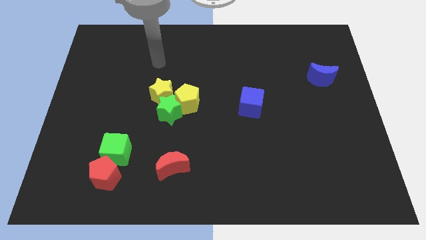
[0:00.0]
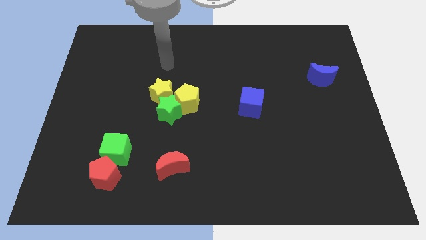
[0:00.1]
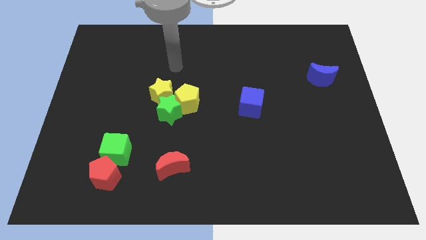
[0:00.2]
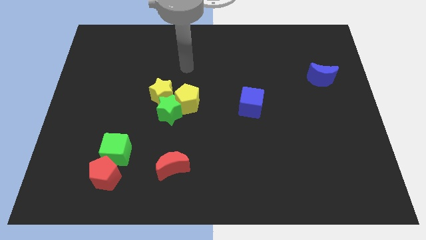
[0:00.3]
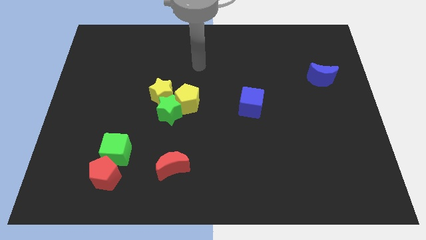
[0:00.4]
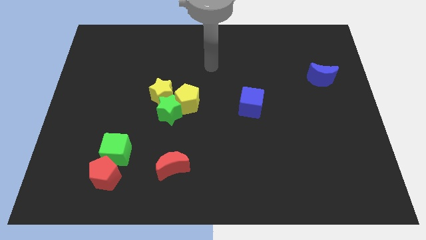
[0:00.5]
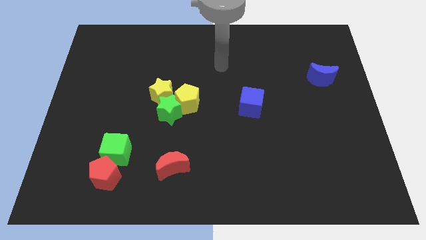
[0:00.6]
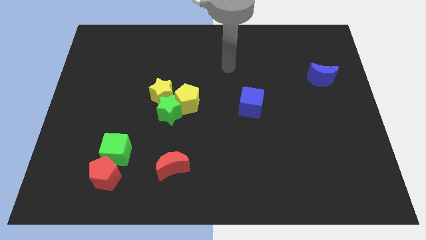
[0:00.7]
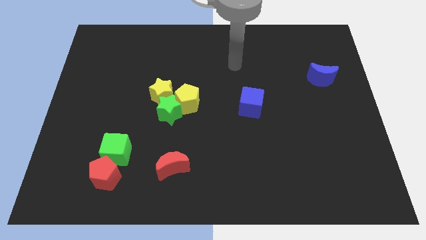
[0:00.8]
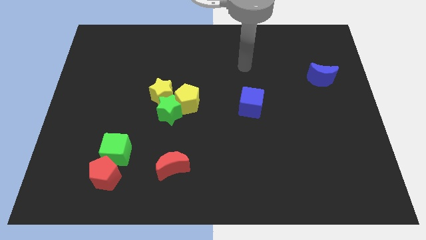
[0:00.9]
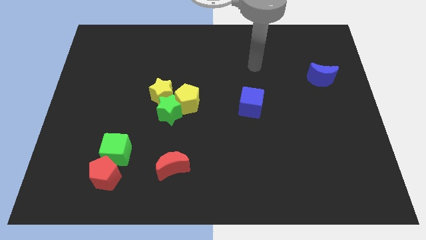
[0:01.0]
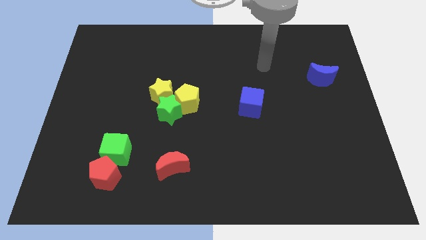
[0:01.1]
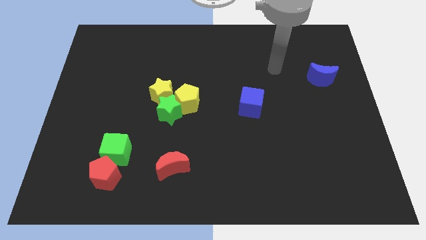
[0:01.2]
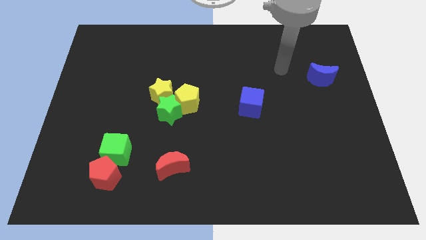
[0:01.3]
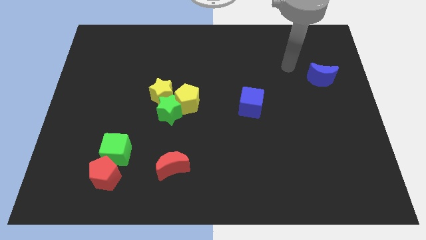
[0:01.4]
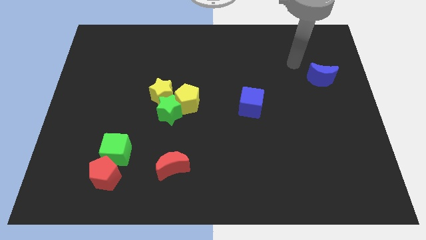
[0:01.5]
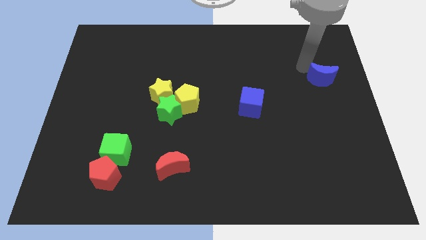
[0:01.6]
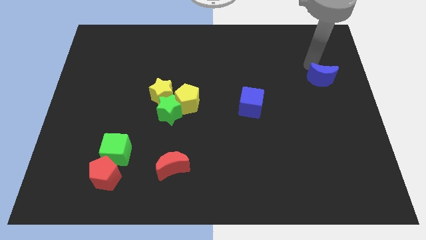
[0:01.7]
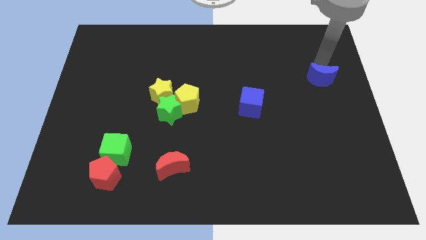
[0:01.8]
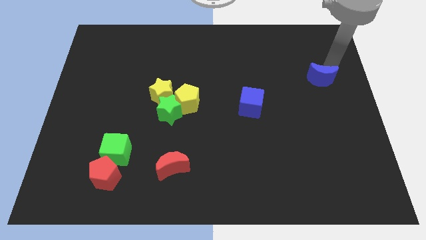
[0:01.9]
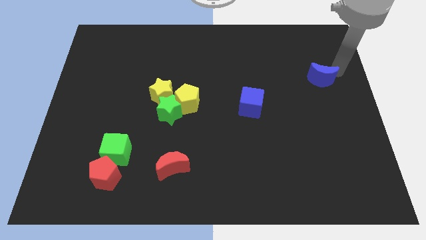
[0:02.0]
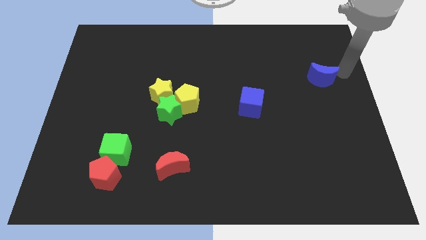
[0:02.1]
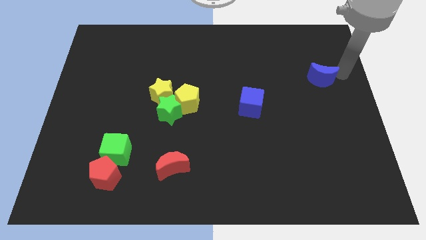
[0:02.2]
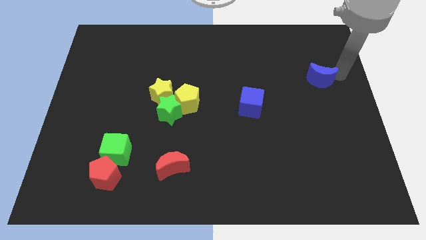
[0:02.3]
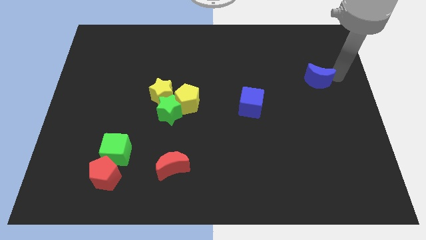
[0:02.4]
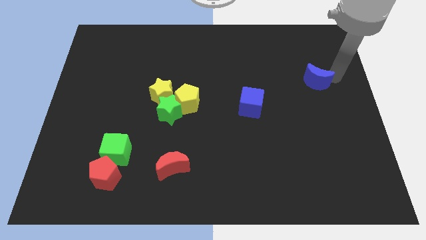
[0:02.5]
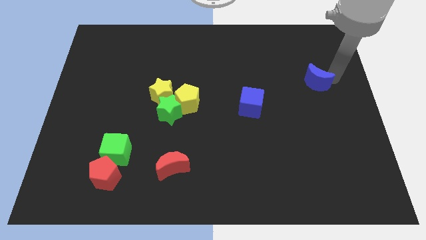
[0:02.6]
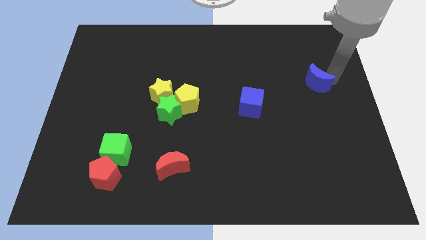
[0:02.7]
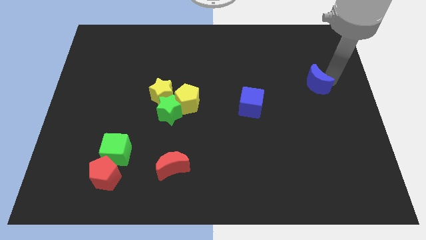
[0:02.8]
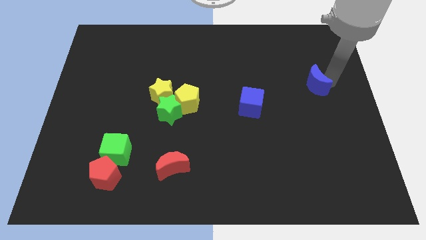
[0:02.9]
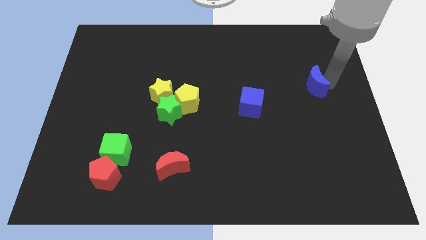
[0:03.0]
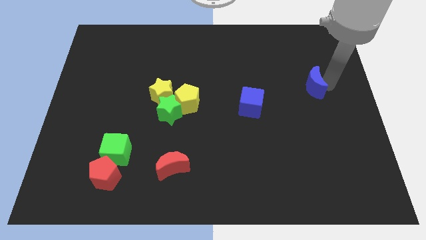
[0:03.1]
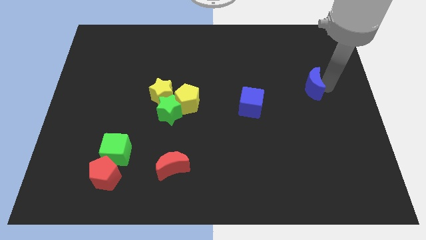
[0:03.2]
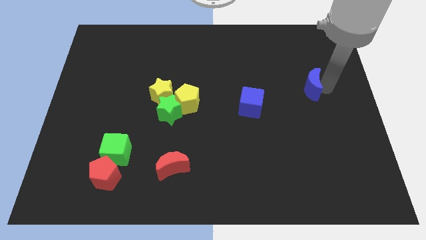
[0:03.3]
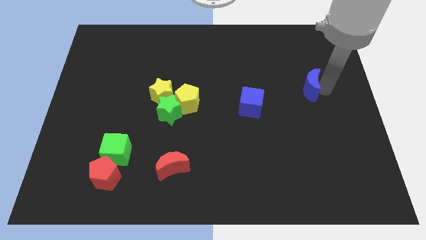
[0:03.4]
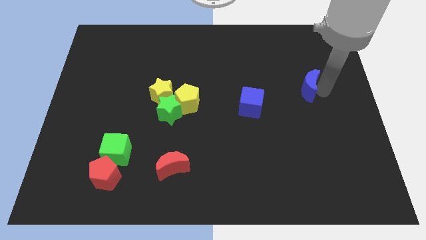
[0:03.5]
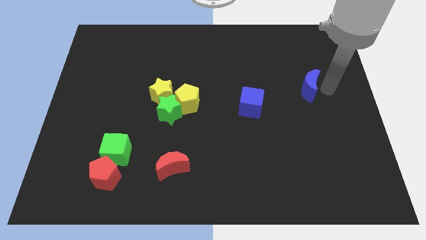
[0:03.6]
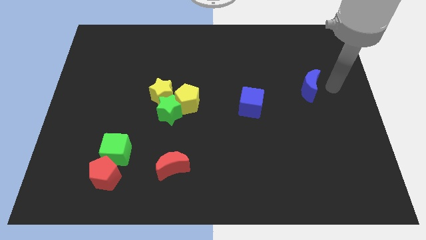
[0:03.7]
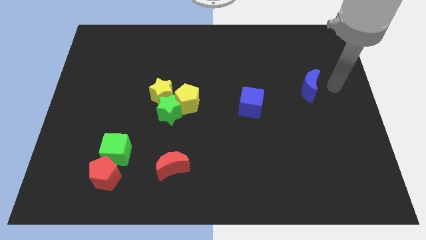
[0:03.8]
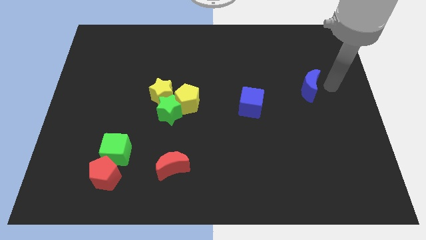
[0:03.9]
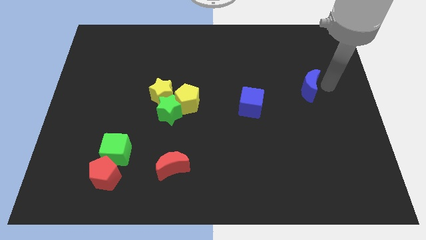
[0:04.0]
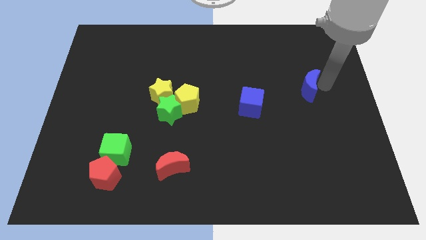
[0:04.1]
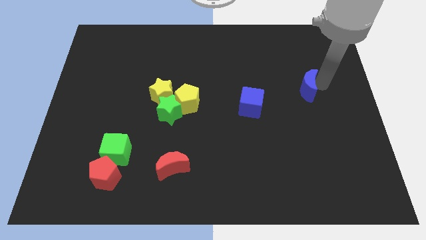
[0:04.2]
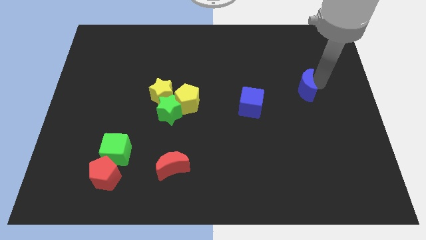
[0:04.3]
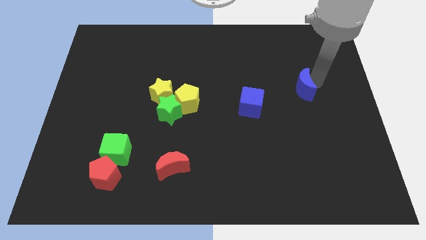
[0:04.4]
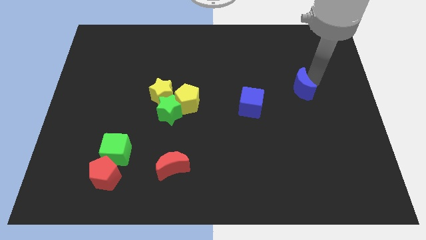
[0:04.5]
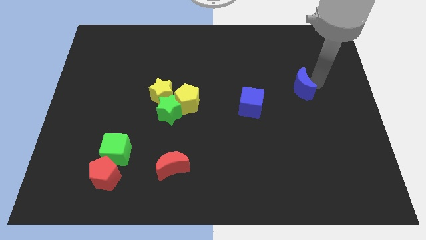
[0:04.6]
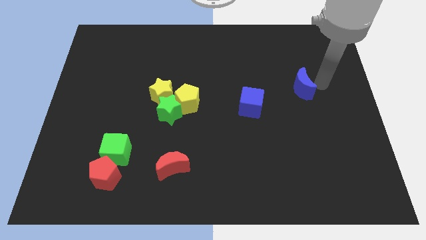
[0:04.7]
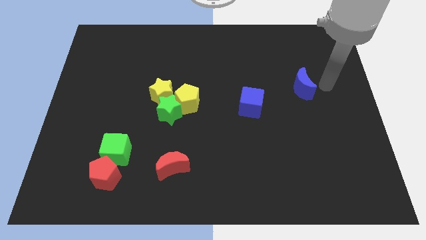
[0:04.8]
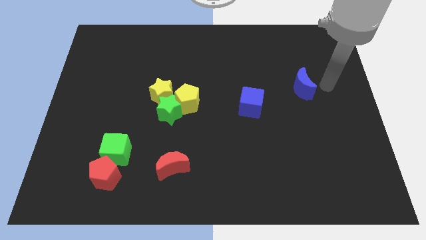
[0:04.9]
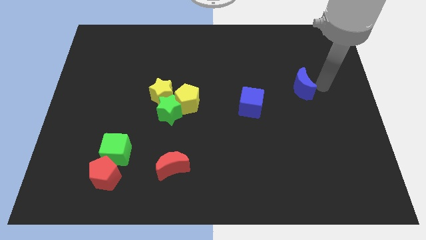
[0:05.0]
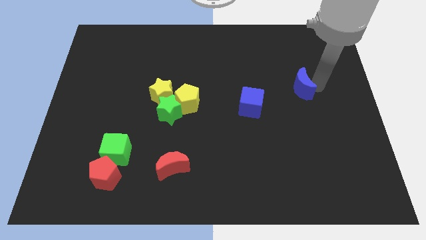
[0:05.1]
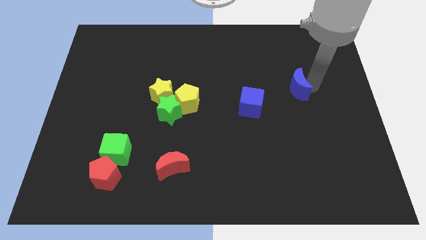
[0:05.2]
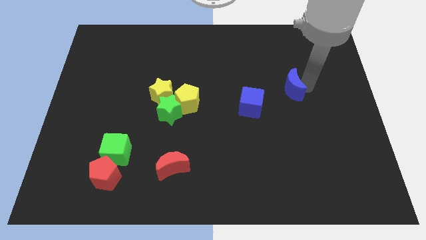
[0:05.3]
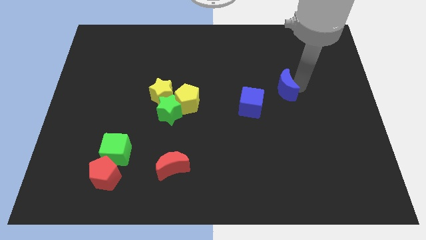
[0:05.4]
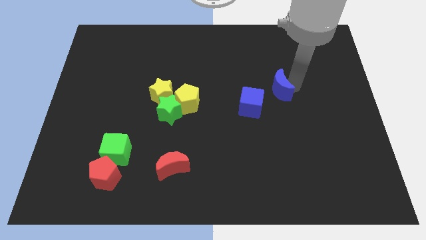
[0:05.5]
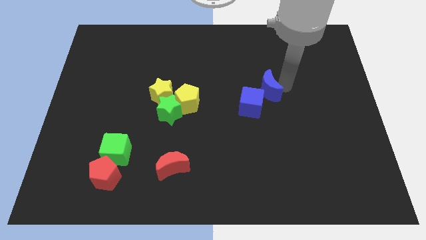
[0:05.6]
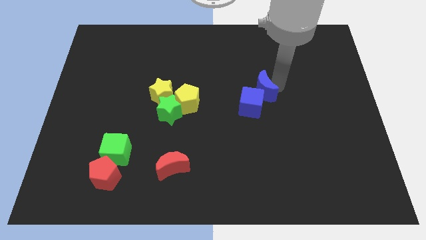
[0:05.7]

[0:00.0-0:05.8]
slide the blue moon to the blue cube

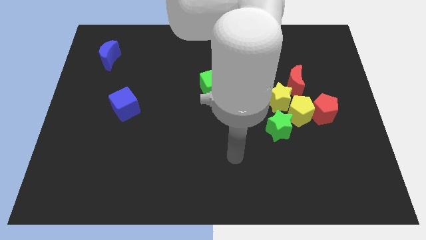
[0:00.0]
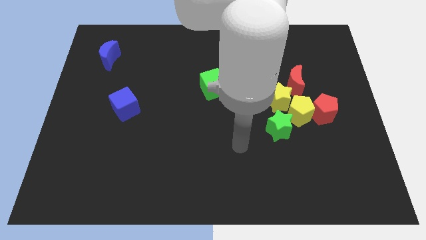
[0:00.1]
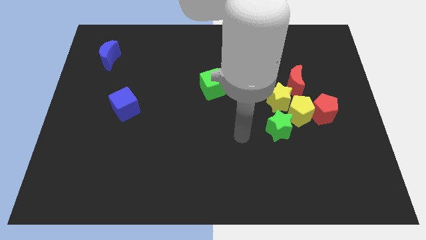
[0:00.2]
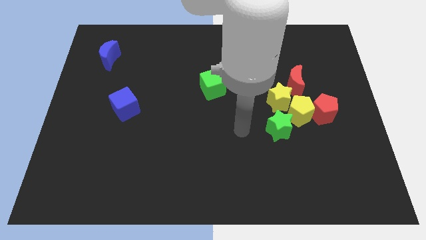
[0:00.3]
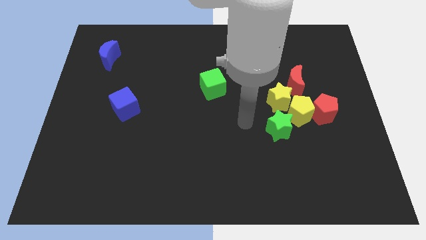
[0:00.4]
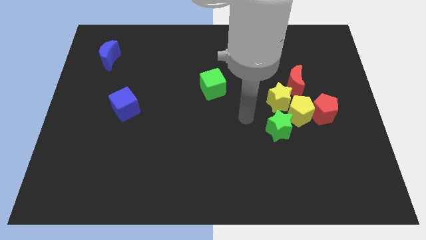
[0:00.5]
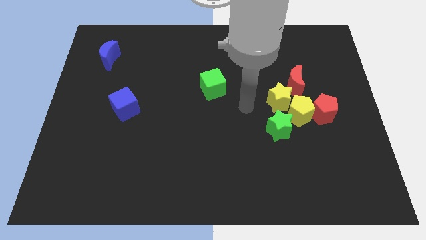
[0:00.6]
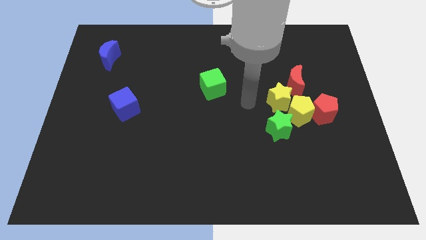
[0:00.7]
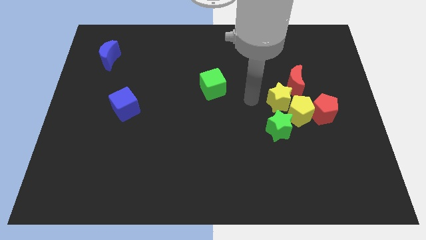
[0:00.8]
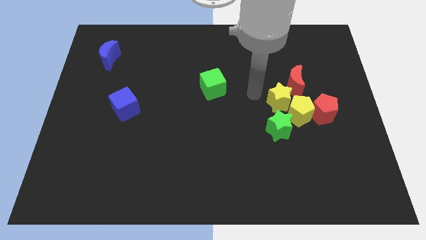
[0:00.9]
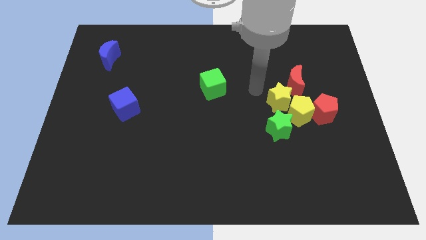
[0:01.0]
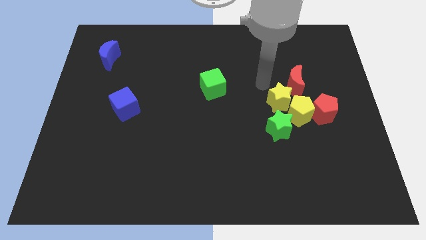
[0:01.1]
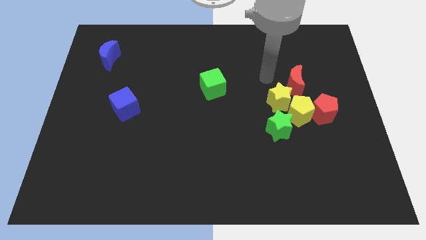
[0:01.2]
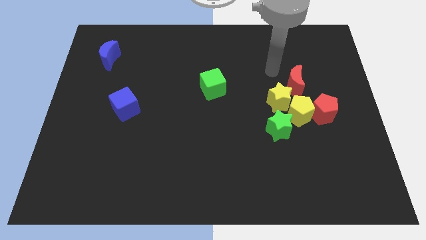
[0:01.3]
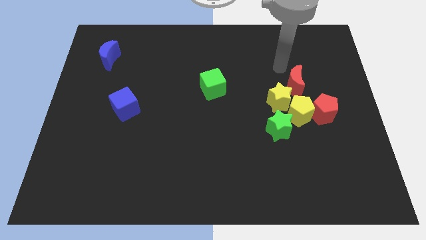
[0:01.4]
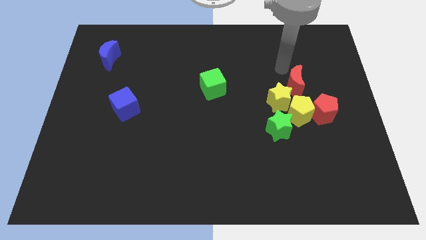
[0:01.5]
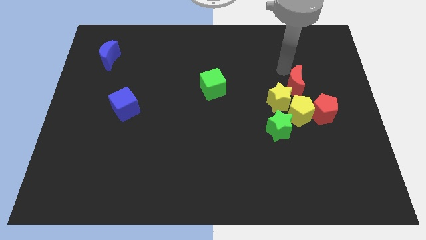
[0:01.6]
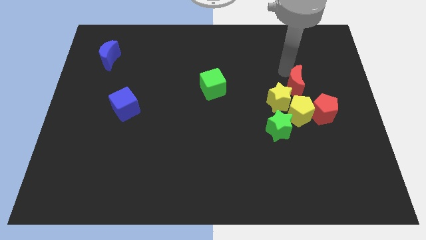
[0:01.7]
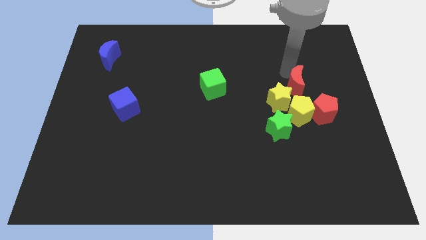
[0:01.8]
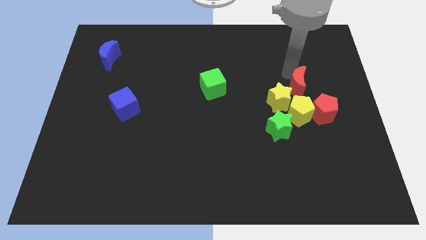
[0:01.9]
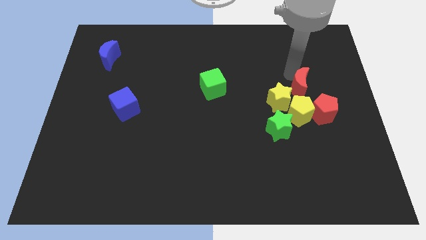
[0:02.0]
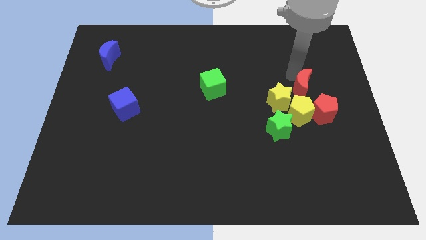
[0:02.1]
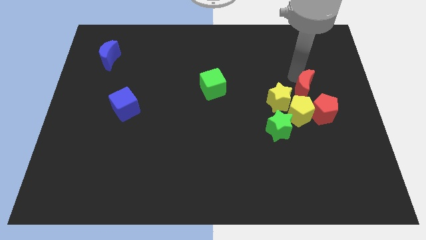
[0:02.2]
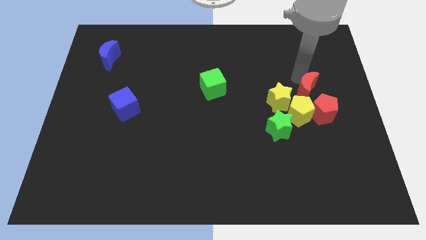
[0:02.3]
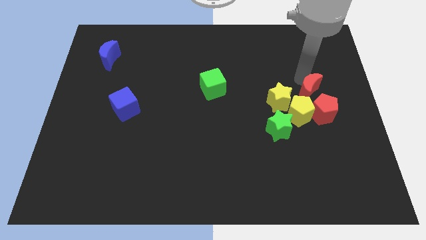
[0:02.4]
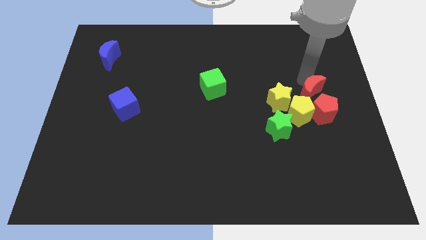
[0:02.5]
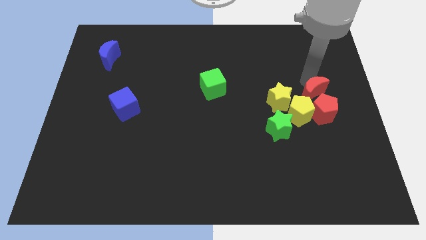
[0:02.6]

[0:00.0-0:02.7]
push the red moon to the red pentagon
